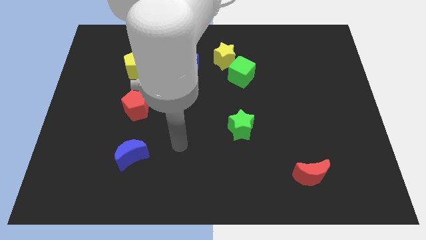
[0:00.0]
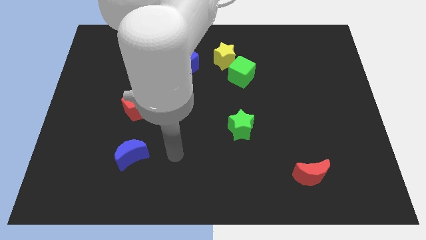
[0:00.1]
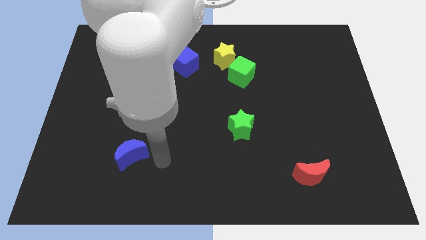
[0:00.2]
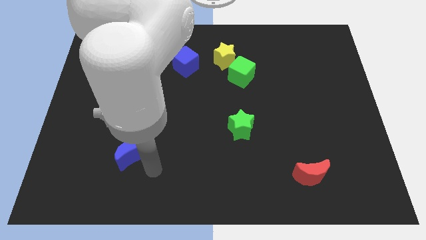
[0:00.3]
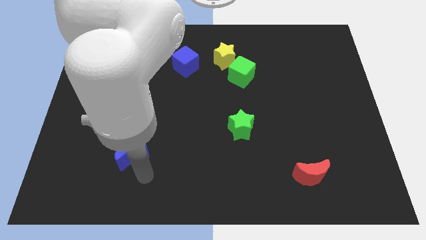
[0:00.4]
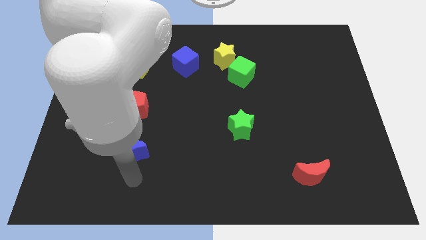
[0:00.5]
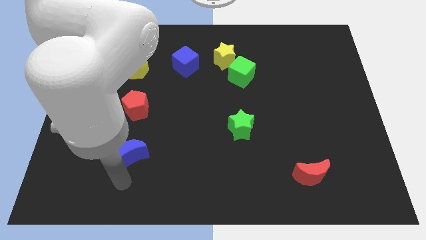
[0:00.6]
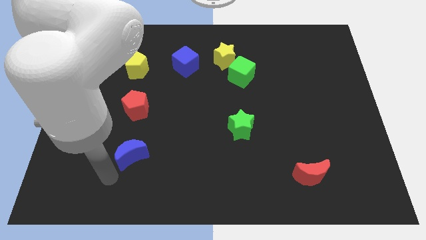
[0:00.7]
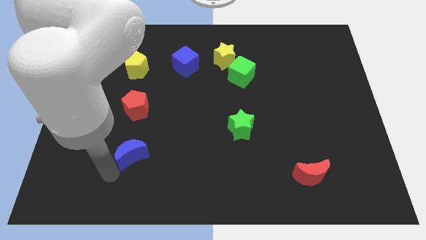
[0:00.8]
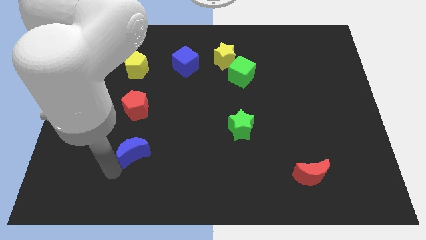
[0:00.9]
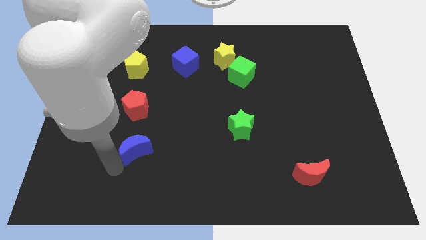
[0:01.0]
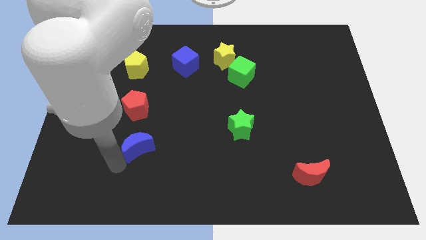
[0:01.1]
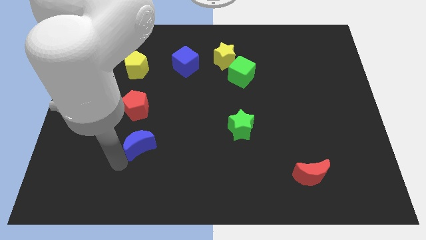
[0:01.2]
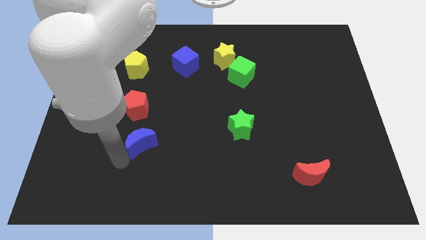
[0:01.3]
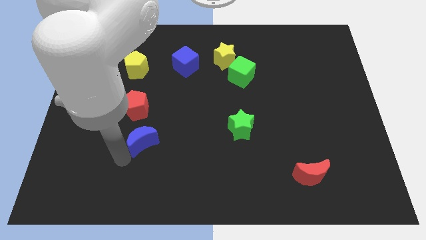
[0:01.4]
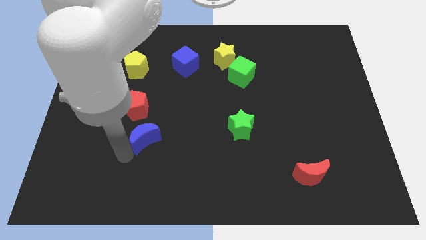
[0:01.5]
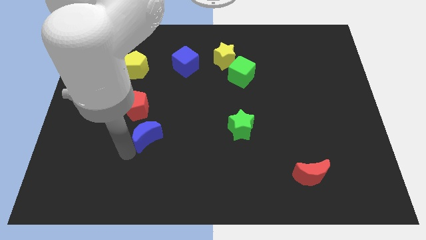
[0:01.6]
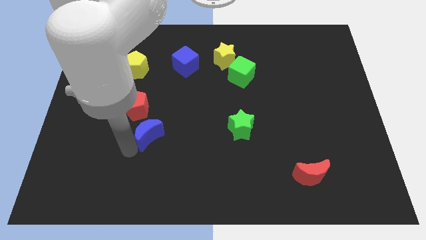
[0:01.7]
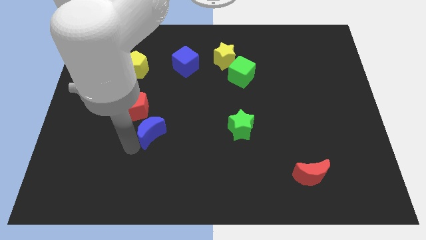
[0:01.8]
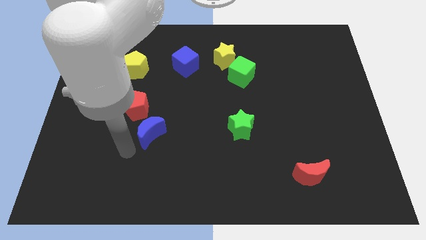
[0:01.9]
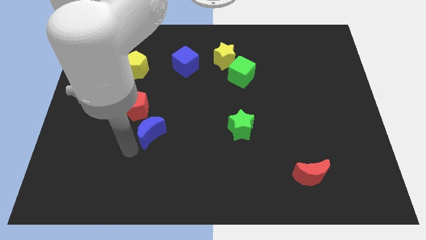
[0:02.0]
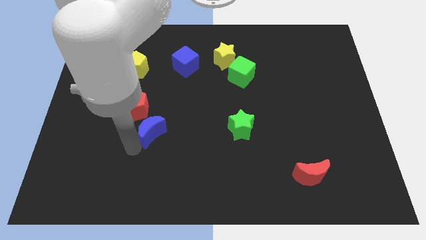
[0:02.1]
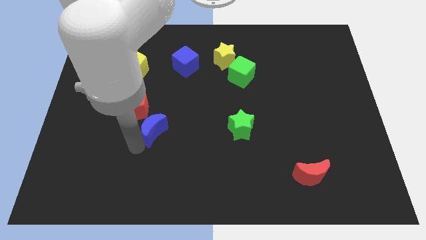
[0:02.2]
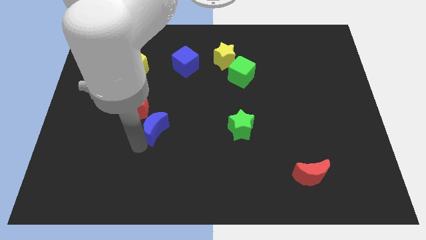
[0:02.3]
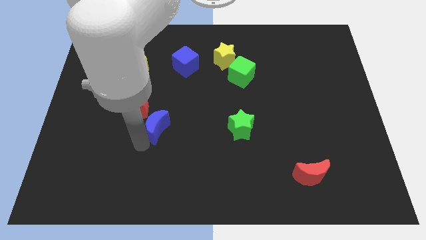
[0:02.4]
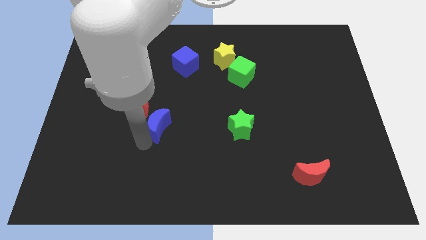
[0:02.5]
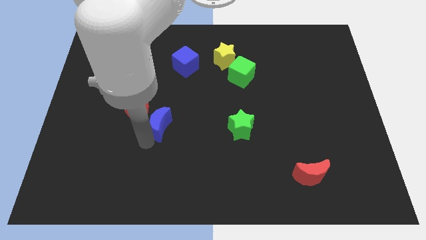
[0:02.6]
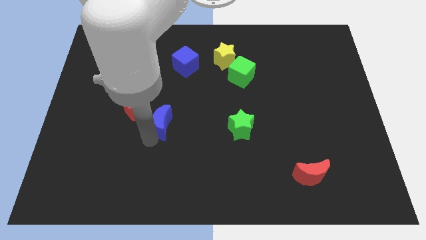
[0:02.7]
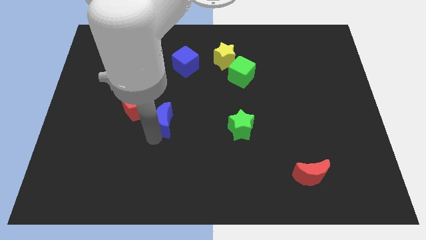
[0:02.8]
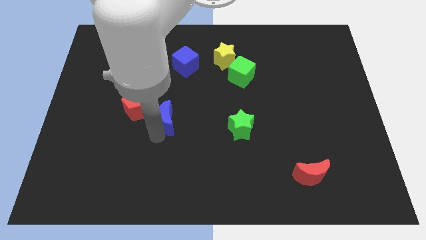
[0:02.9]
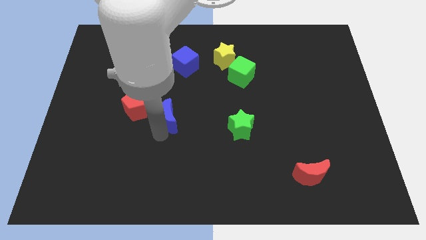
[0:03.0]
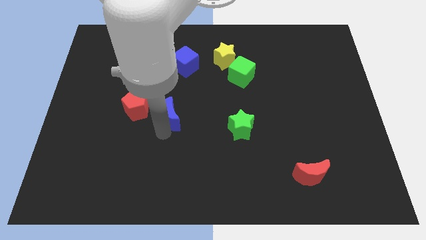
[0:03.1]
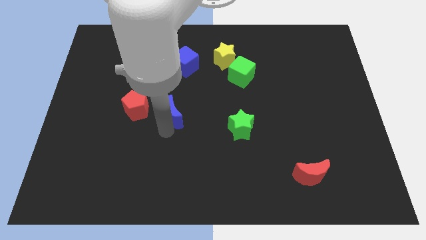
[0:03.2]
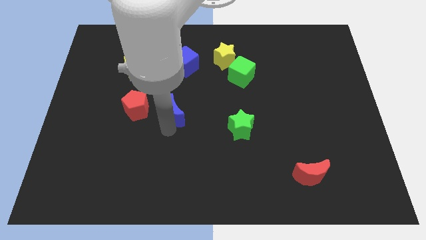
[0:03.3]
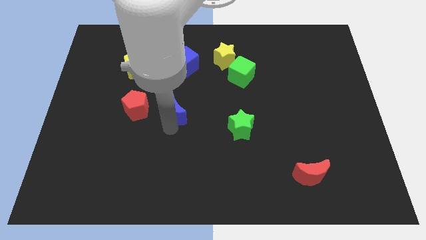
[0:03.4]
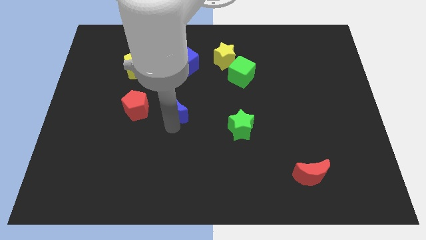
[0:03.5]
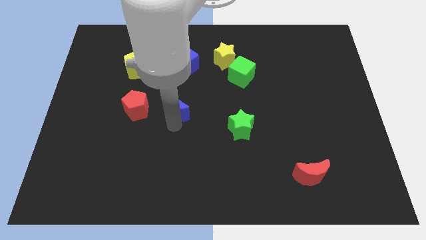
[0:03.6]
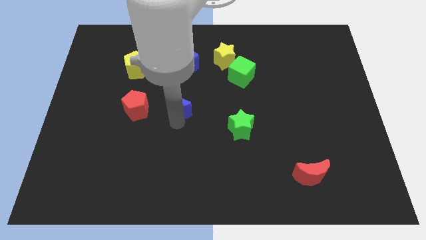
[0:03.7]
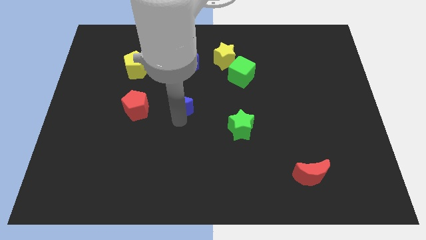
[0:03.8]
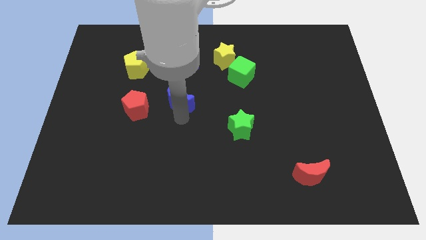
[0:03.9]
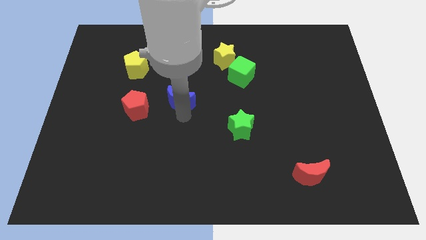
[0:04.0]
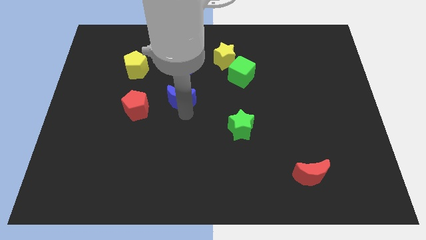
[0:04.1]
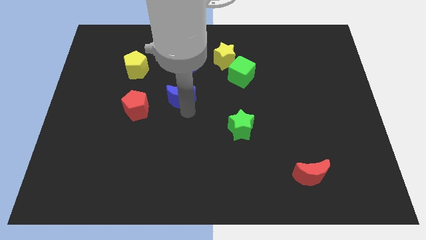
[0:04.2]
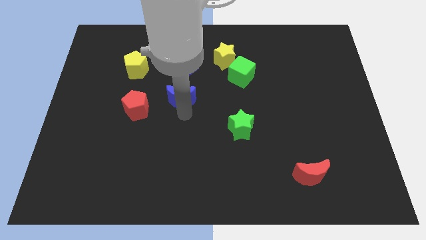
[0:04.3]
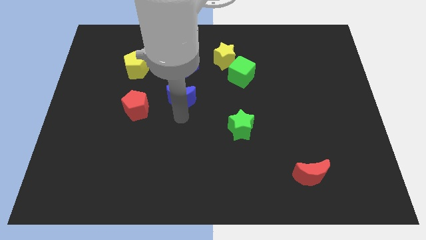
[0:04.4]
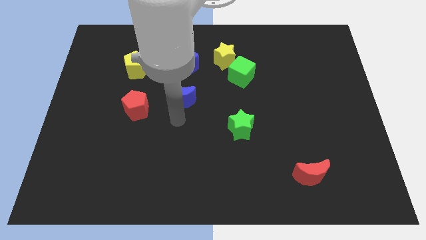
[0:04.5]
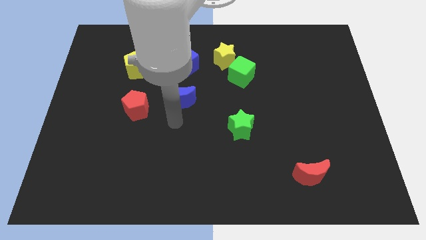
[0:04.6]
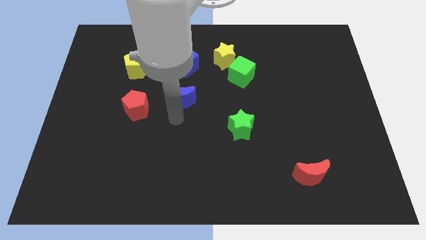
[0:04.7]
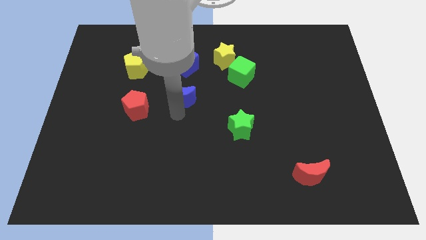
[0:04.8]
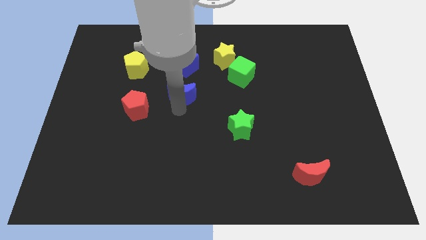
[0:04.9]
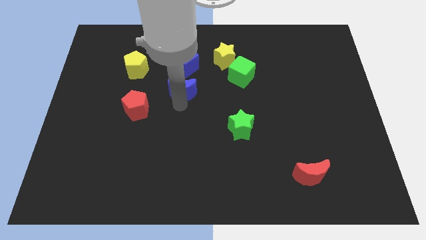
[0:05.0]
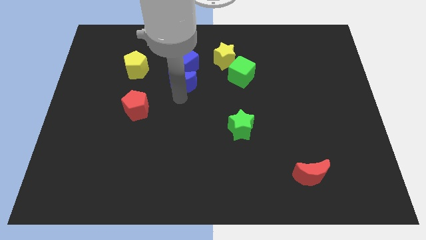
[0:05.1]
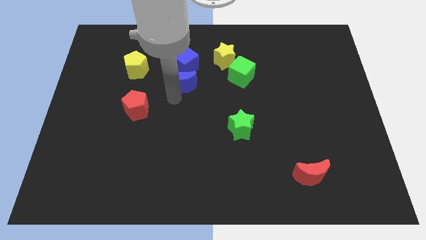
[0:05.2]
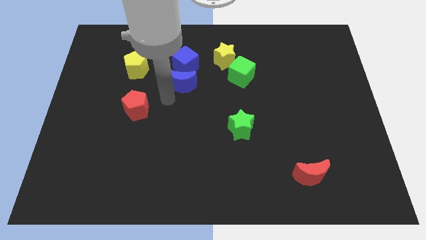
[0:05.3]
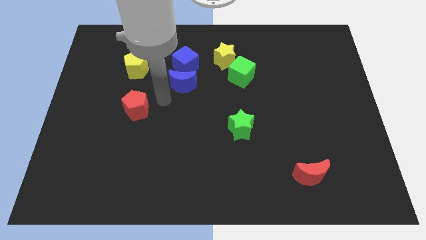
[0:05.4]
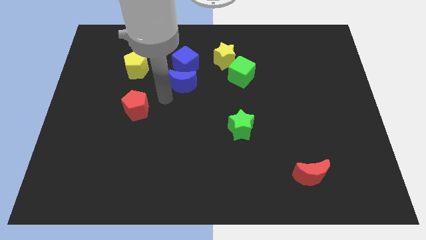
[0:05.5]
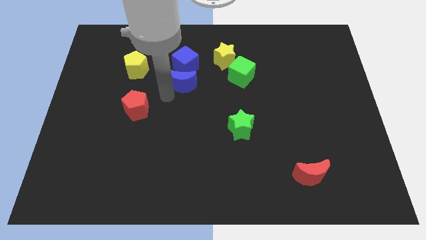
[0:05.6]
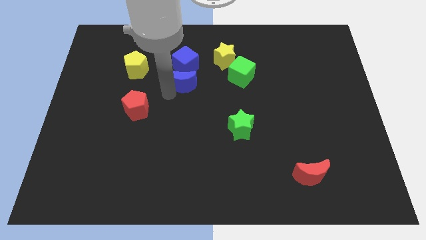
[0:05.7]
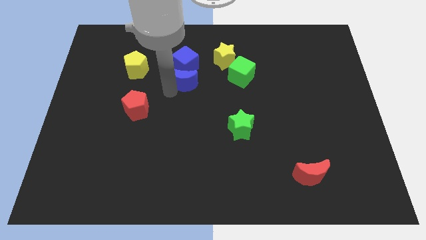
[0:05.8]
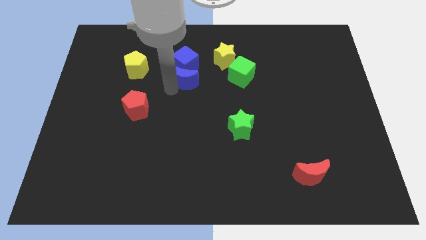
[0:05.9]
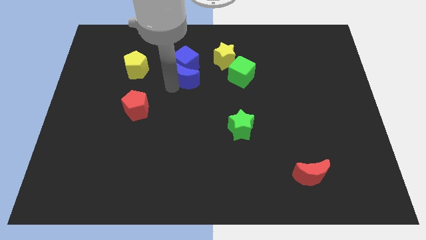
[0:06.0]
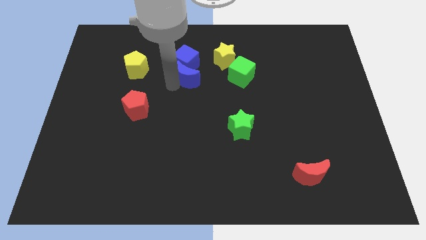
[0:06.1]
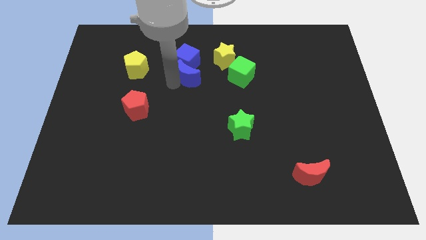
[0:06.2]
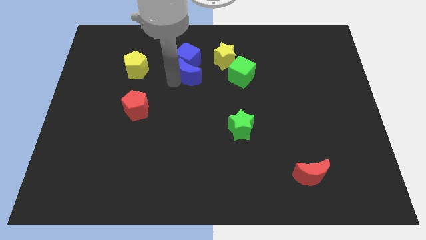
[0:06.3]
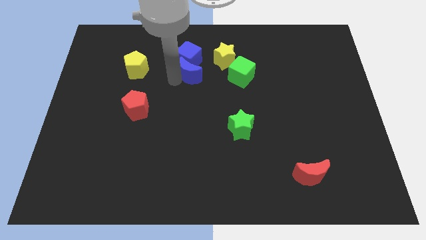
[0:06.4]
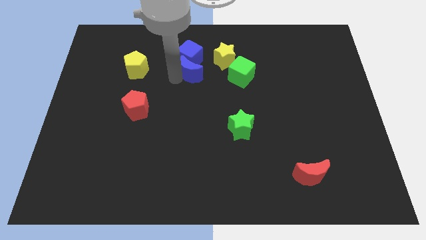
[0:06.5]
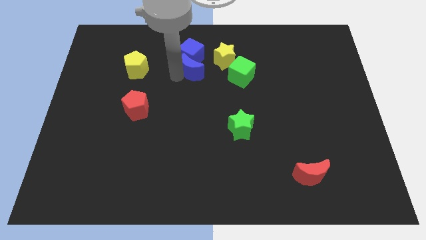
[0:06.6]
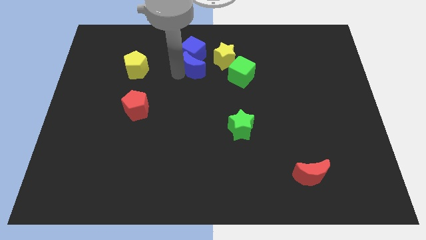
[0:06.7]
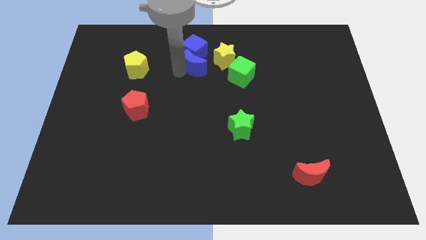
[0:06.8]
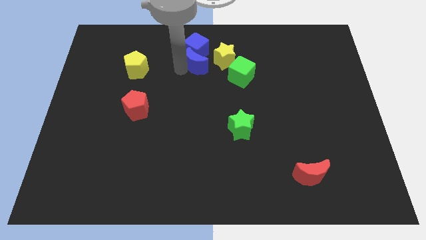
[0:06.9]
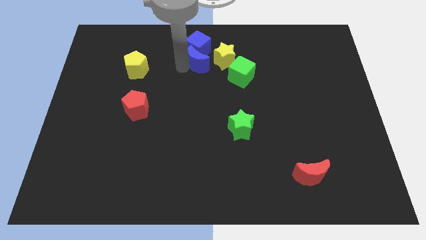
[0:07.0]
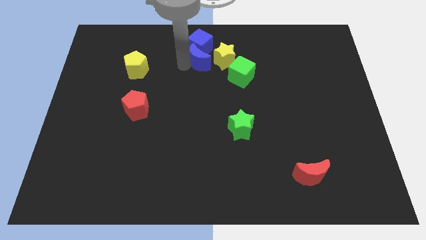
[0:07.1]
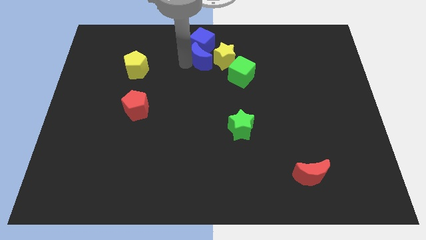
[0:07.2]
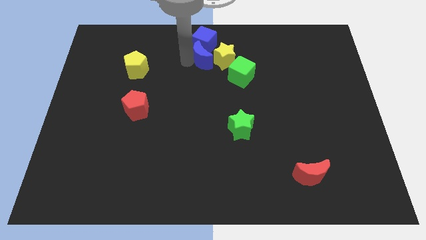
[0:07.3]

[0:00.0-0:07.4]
put the blue moon to the yellow star
